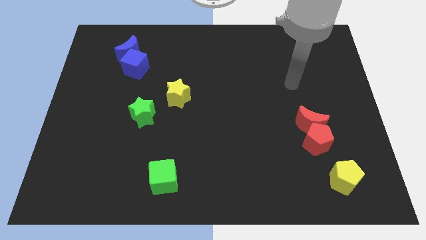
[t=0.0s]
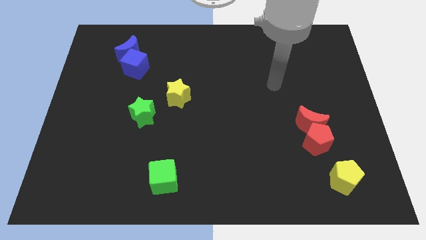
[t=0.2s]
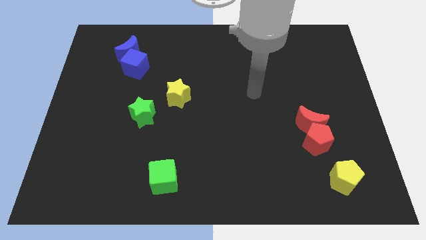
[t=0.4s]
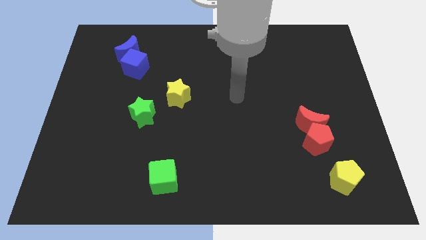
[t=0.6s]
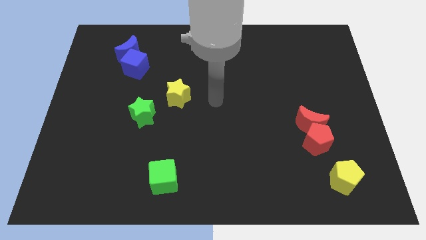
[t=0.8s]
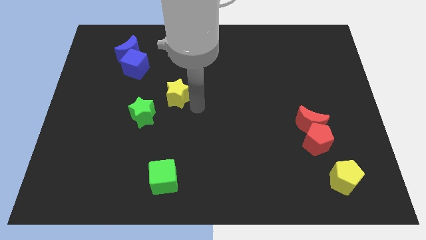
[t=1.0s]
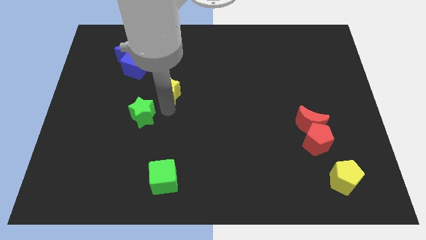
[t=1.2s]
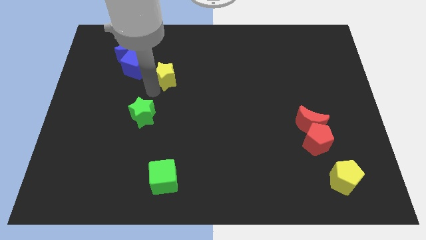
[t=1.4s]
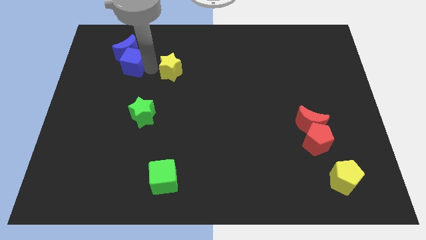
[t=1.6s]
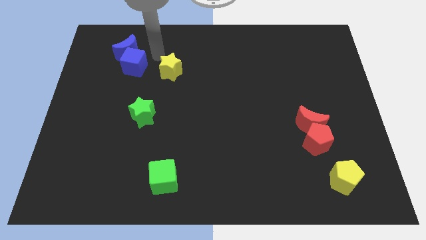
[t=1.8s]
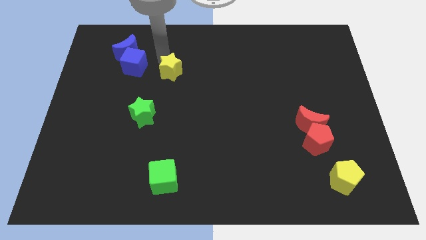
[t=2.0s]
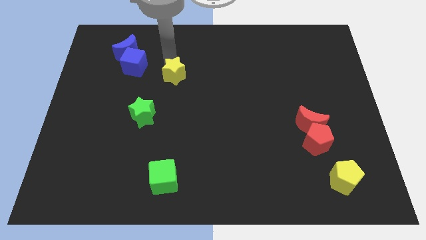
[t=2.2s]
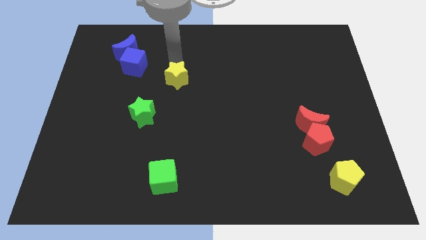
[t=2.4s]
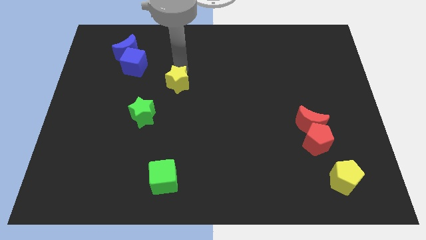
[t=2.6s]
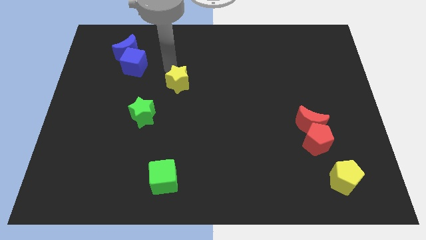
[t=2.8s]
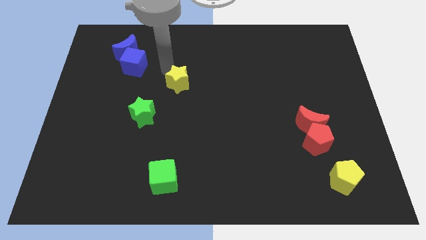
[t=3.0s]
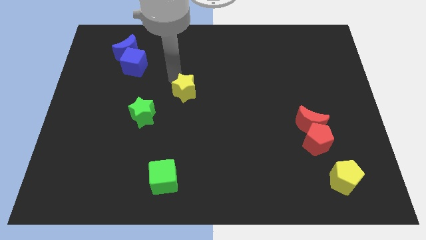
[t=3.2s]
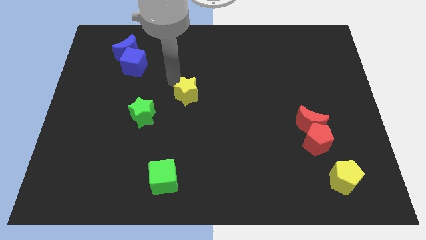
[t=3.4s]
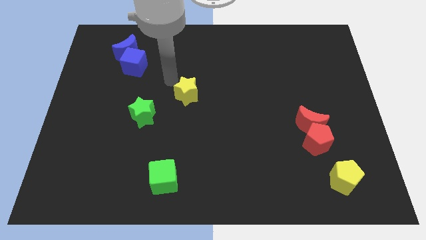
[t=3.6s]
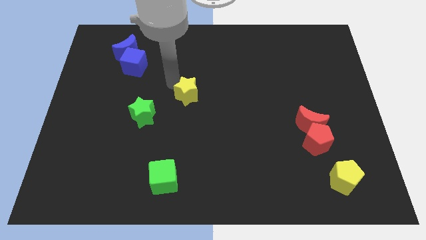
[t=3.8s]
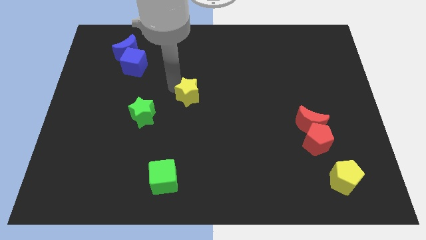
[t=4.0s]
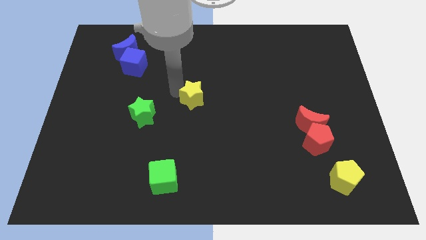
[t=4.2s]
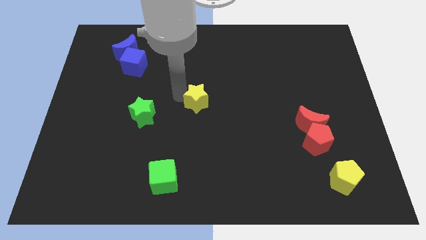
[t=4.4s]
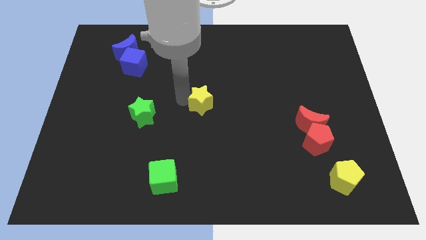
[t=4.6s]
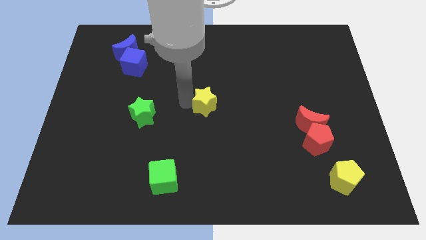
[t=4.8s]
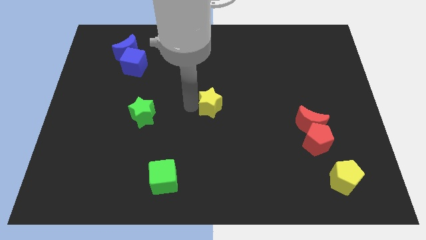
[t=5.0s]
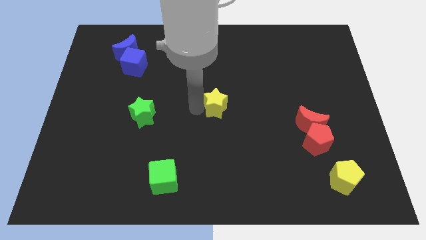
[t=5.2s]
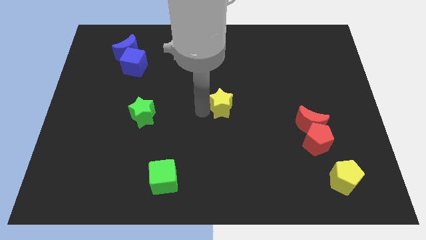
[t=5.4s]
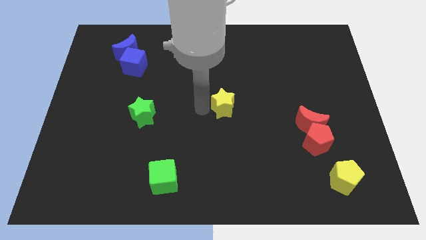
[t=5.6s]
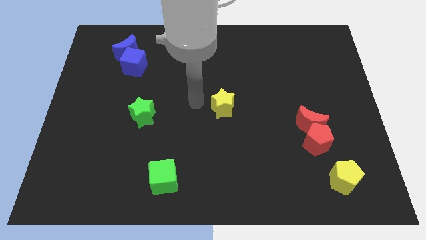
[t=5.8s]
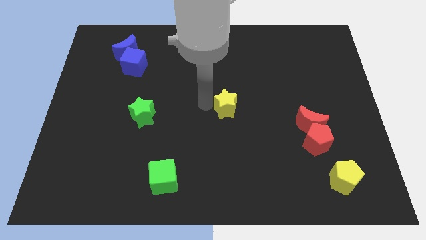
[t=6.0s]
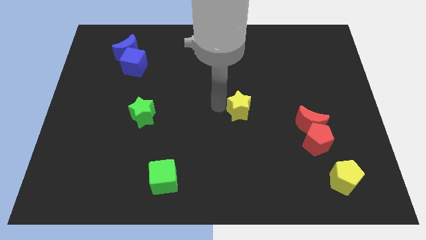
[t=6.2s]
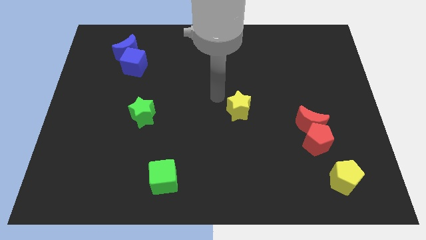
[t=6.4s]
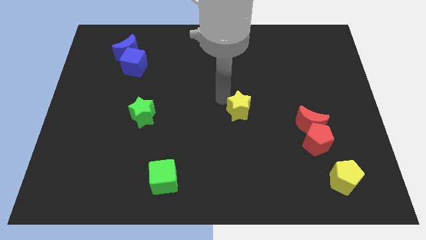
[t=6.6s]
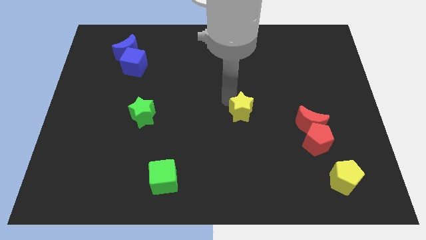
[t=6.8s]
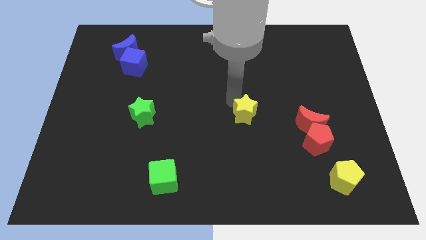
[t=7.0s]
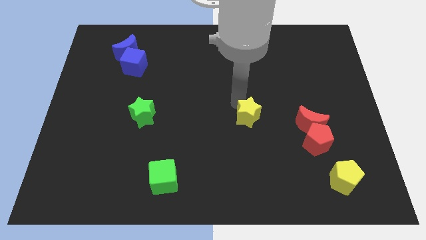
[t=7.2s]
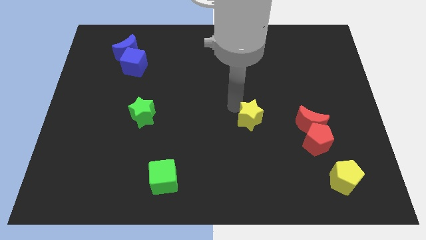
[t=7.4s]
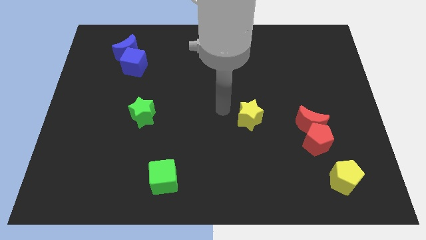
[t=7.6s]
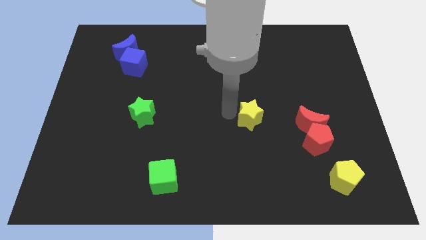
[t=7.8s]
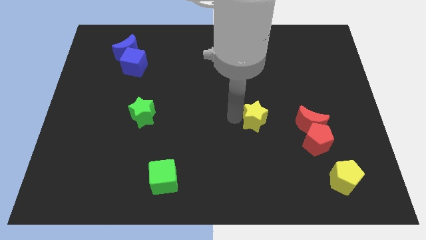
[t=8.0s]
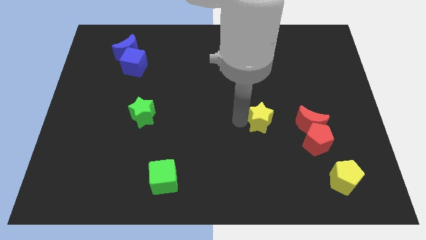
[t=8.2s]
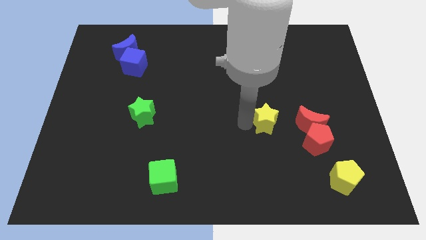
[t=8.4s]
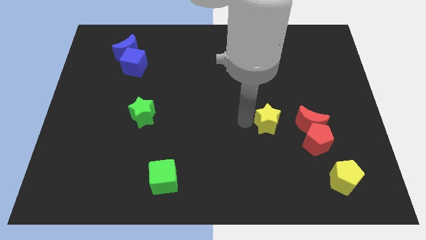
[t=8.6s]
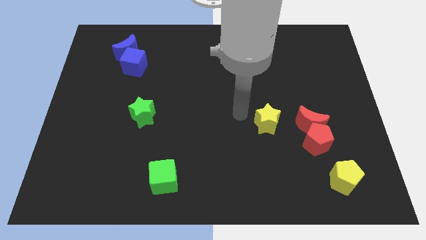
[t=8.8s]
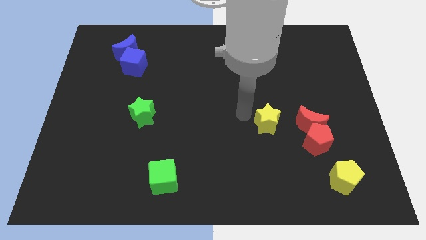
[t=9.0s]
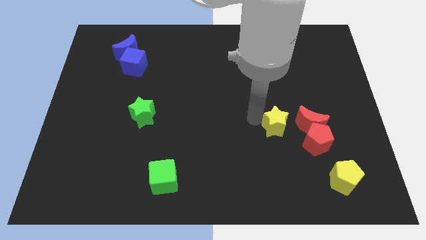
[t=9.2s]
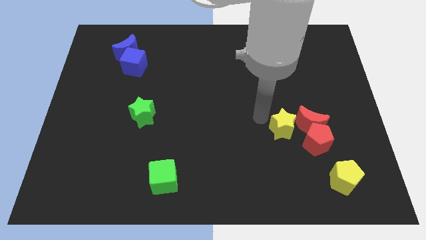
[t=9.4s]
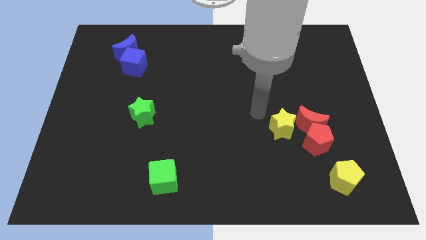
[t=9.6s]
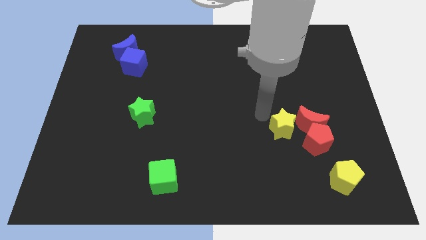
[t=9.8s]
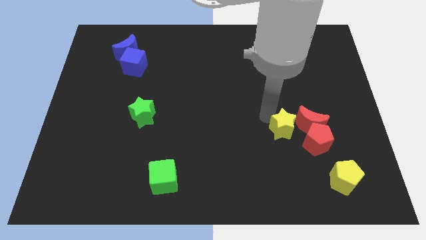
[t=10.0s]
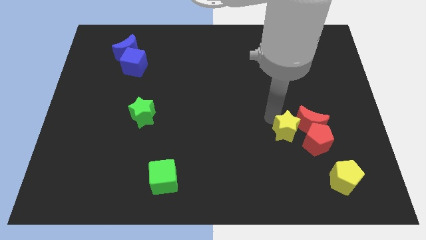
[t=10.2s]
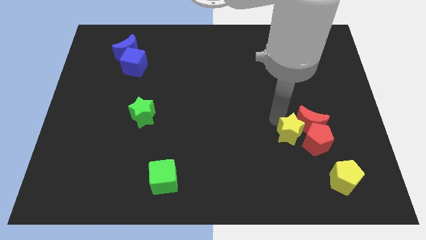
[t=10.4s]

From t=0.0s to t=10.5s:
push the yellow star next to the red pentagon

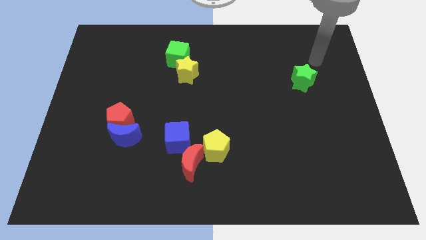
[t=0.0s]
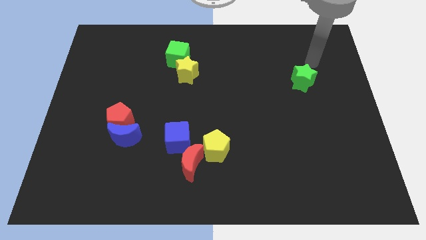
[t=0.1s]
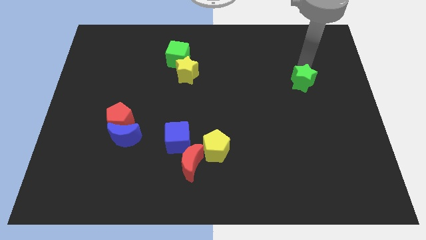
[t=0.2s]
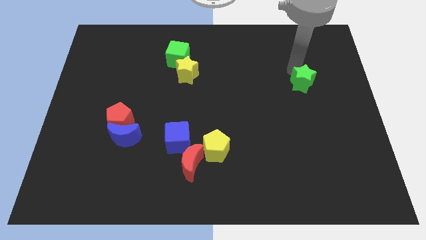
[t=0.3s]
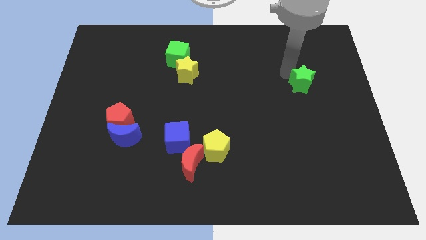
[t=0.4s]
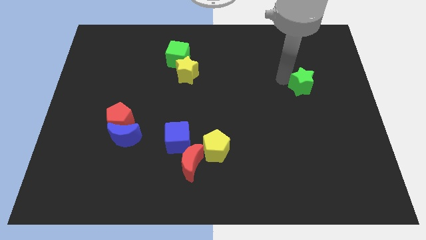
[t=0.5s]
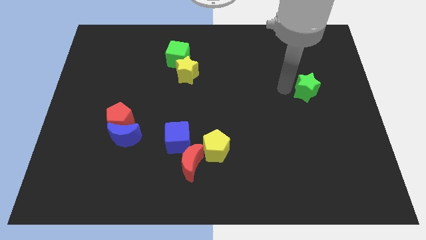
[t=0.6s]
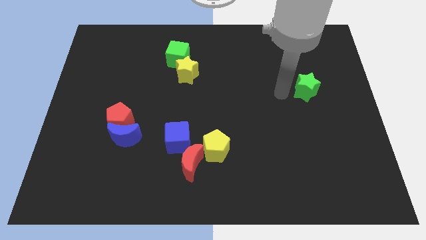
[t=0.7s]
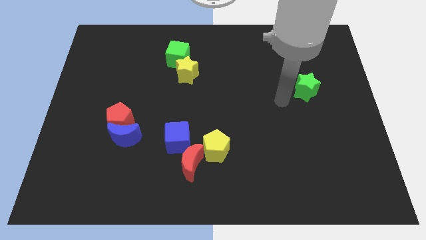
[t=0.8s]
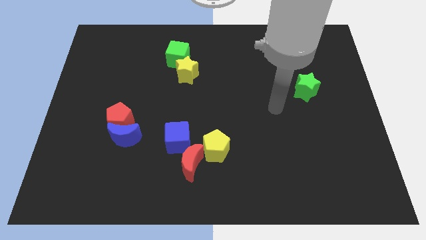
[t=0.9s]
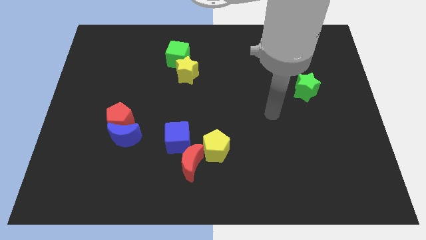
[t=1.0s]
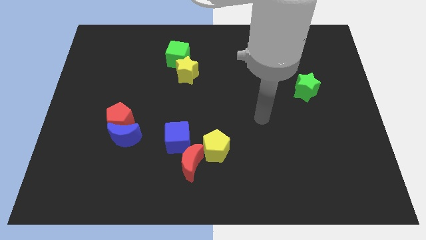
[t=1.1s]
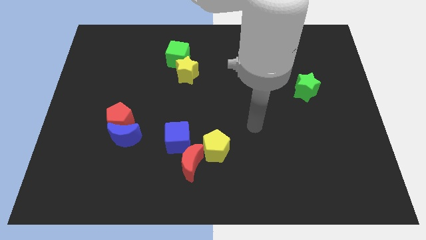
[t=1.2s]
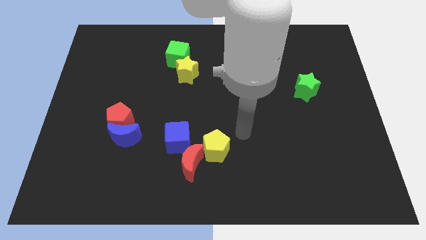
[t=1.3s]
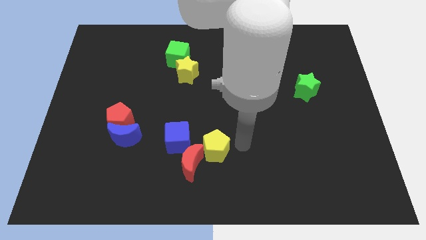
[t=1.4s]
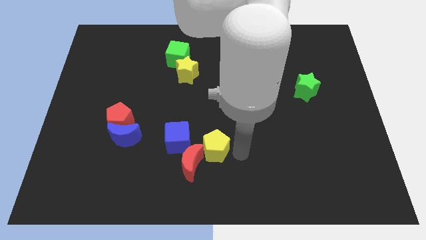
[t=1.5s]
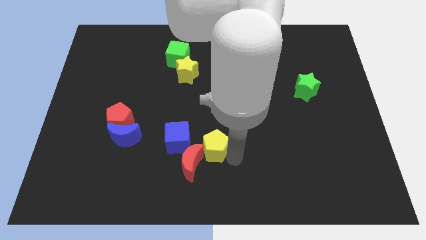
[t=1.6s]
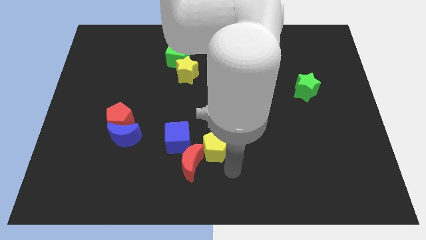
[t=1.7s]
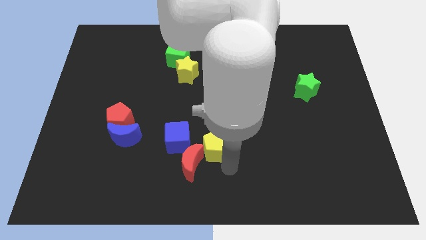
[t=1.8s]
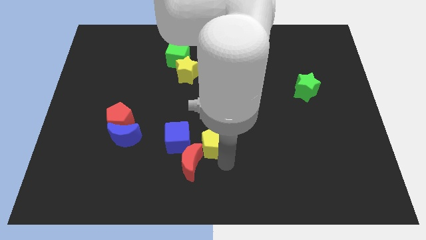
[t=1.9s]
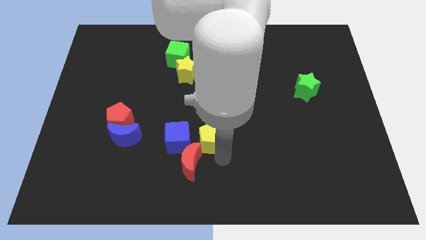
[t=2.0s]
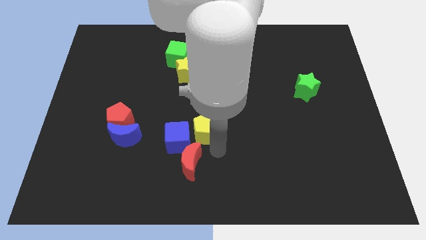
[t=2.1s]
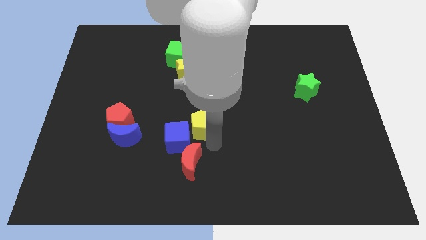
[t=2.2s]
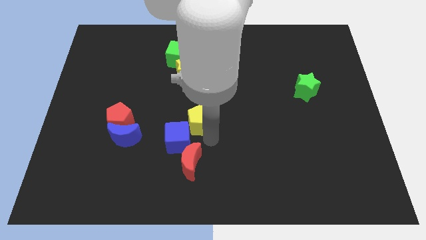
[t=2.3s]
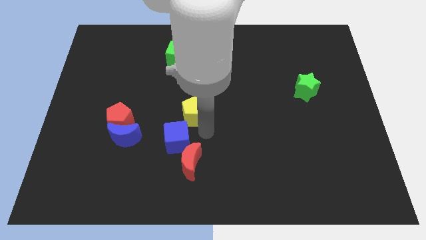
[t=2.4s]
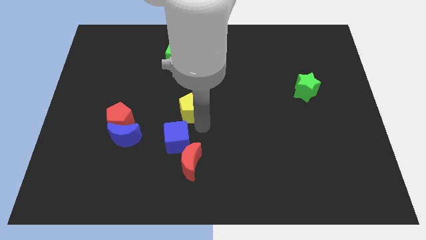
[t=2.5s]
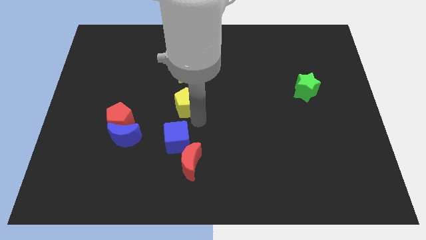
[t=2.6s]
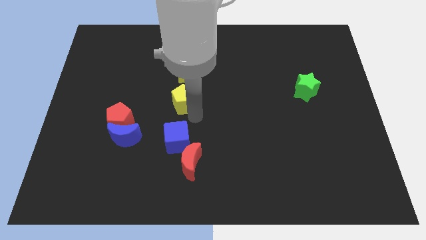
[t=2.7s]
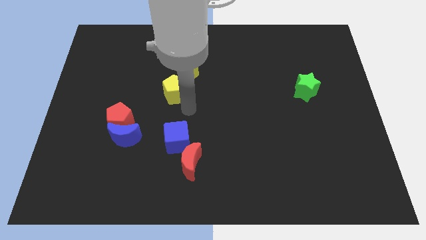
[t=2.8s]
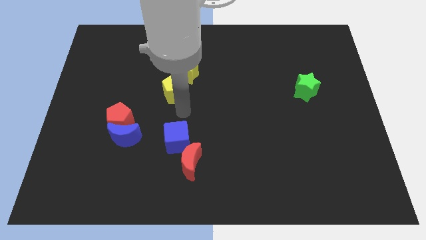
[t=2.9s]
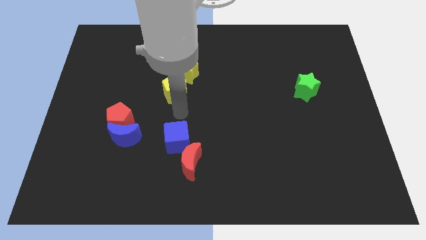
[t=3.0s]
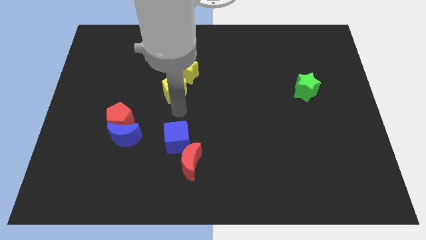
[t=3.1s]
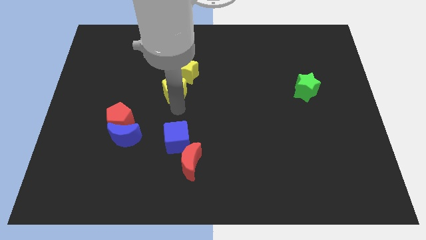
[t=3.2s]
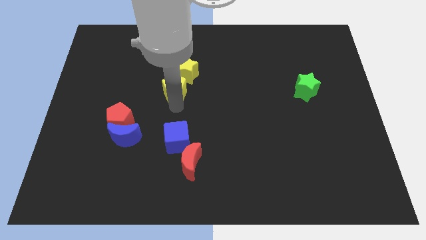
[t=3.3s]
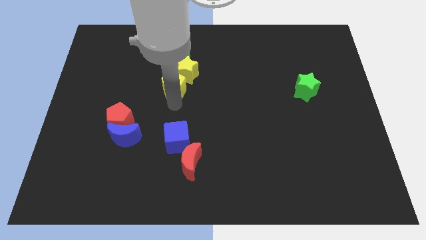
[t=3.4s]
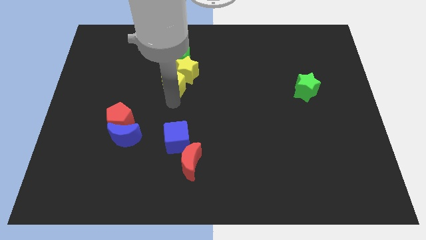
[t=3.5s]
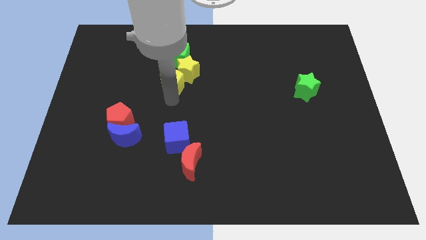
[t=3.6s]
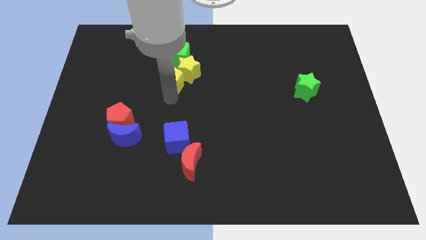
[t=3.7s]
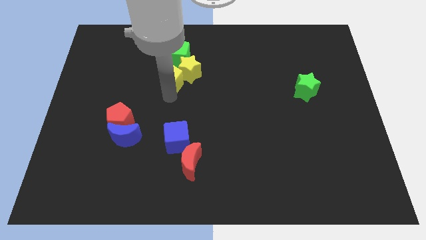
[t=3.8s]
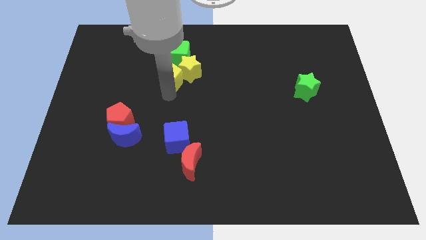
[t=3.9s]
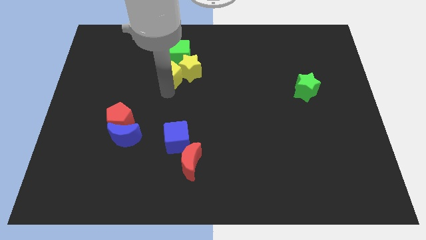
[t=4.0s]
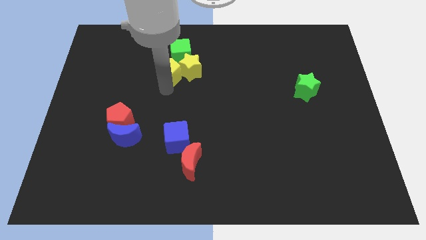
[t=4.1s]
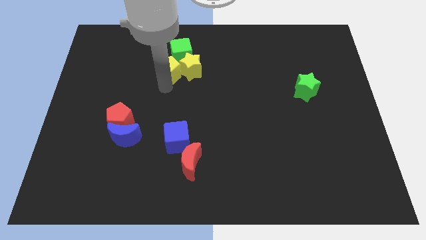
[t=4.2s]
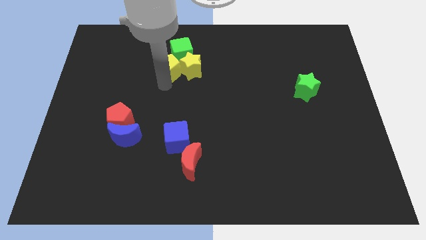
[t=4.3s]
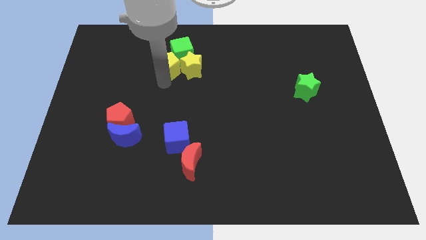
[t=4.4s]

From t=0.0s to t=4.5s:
move the yellow pentagon close to the green cube
